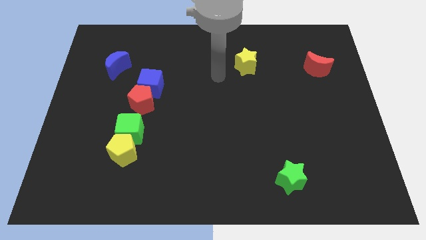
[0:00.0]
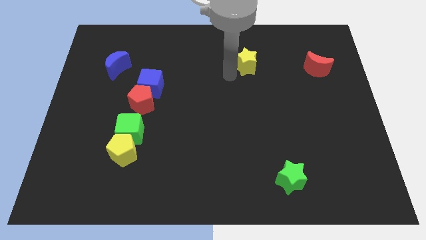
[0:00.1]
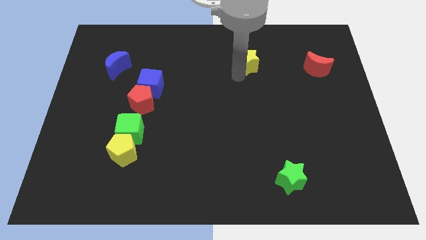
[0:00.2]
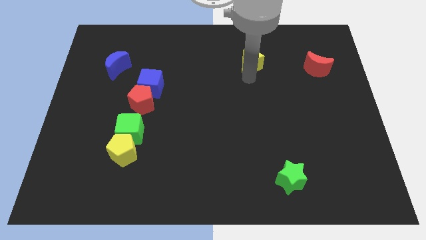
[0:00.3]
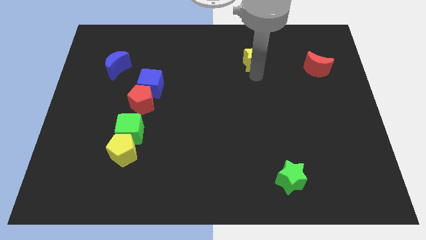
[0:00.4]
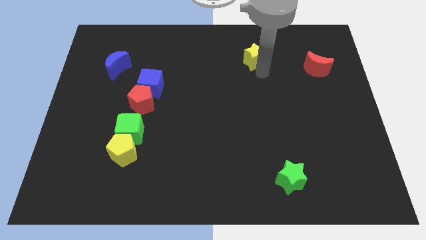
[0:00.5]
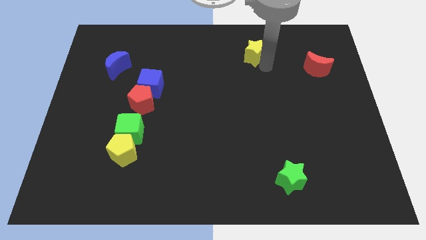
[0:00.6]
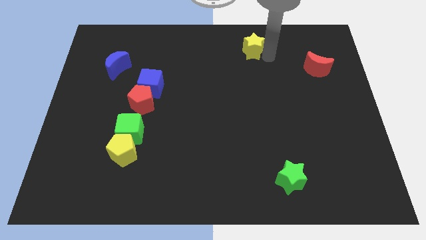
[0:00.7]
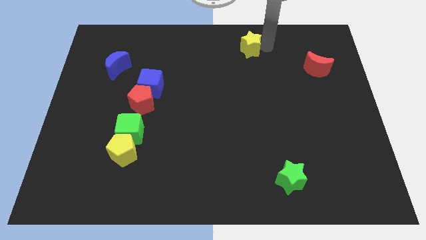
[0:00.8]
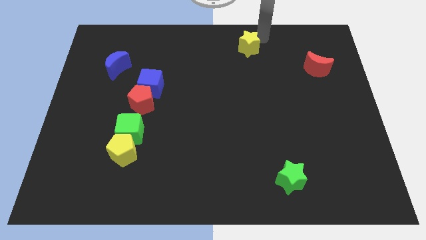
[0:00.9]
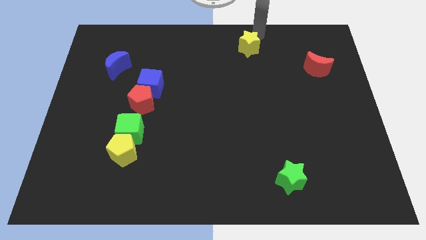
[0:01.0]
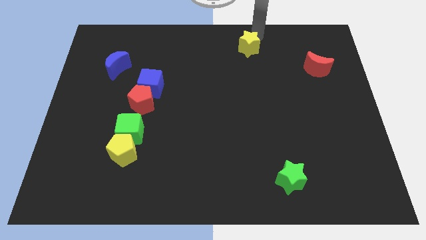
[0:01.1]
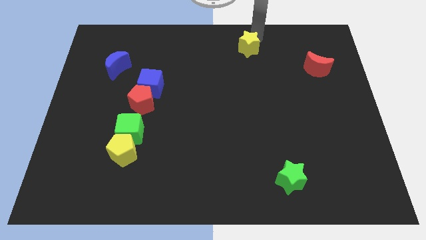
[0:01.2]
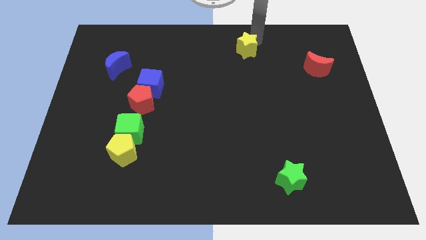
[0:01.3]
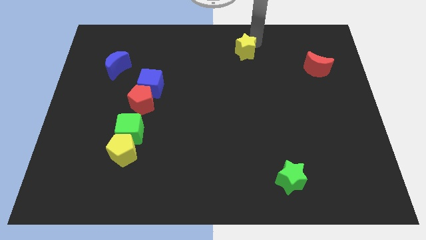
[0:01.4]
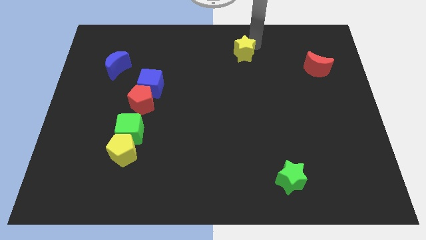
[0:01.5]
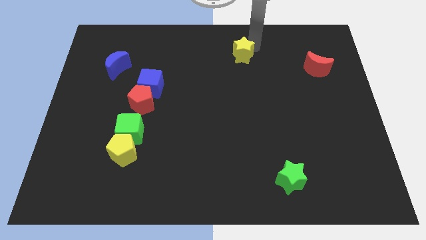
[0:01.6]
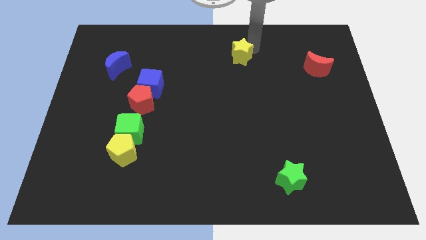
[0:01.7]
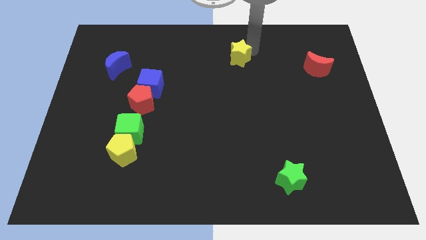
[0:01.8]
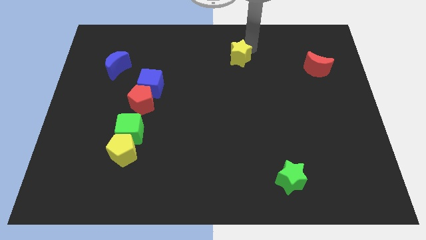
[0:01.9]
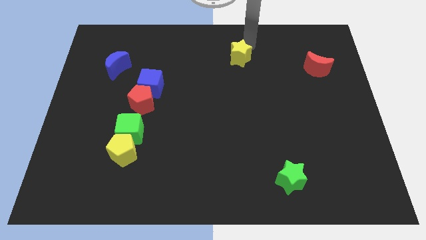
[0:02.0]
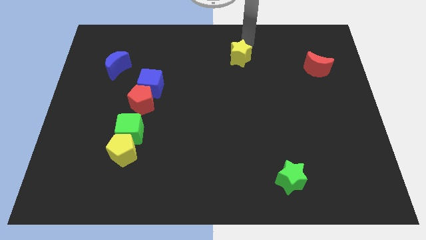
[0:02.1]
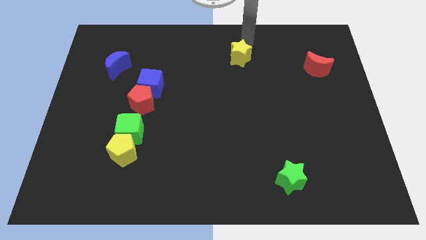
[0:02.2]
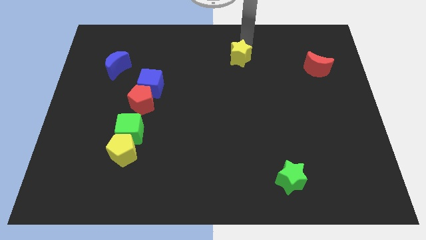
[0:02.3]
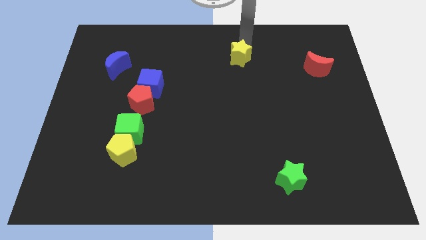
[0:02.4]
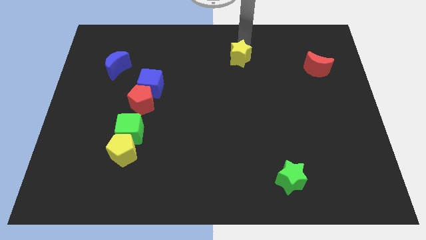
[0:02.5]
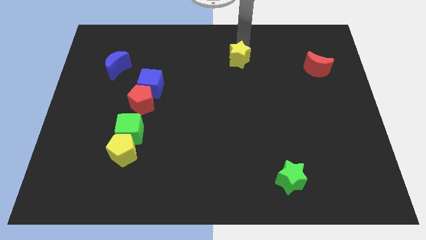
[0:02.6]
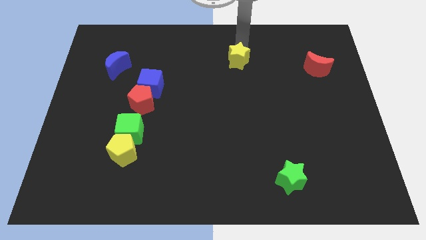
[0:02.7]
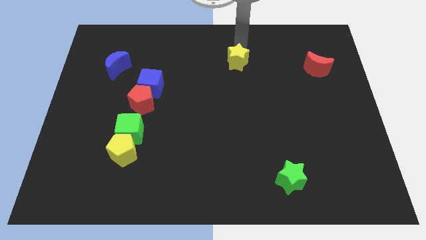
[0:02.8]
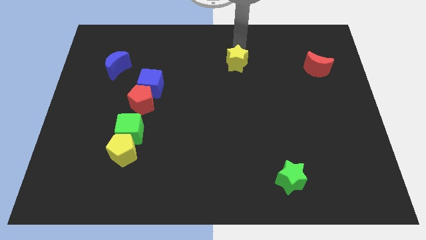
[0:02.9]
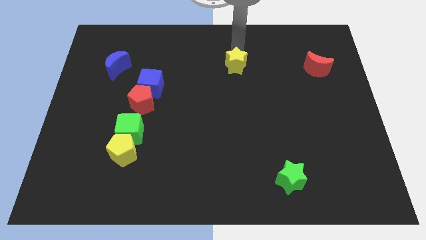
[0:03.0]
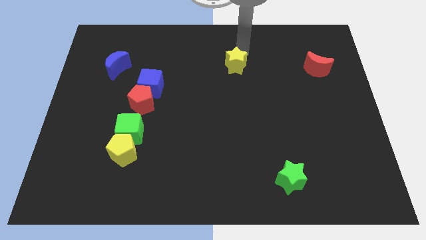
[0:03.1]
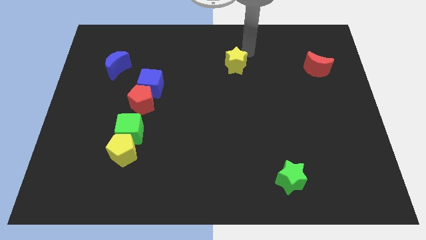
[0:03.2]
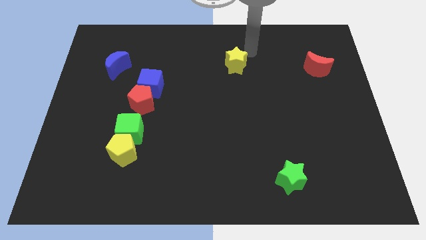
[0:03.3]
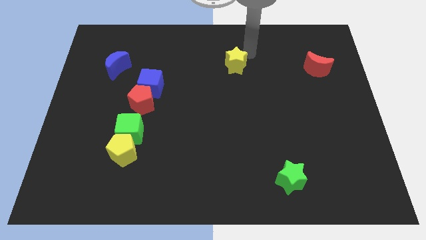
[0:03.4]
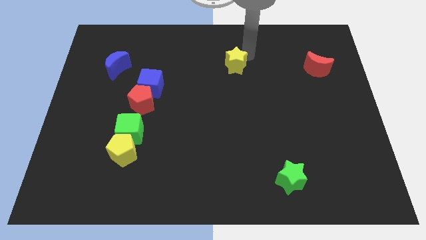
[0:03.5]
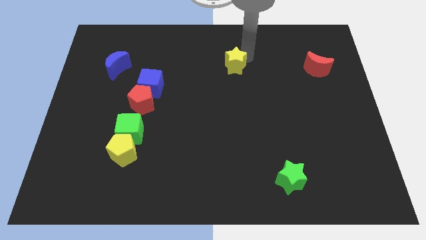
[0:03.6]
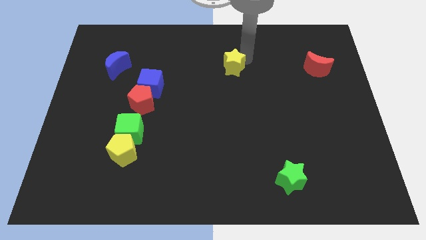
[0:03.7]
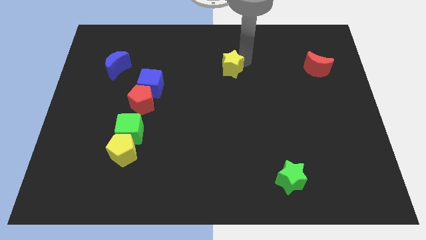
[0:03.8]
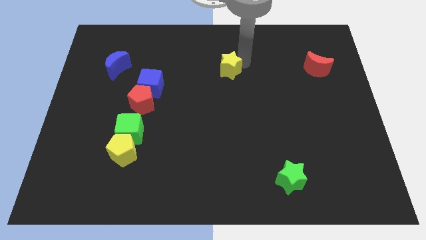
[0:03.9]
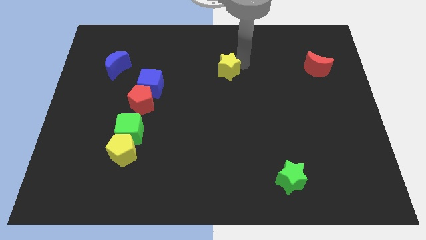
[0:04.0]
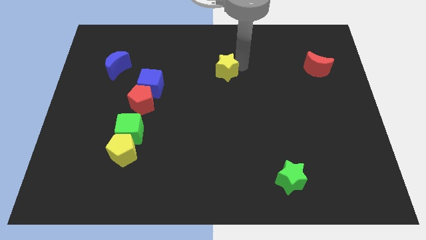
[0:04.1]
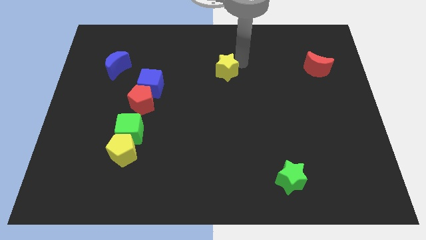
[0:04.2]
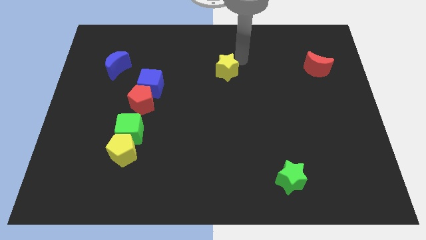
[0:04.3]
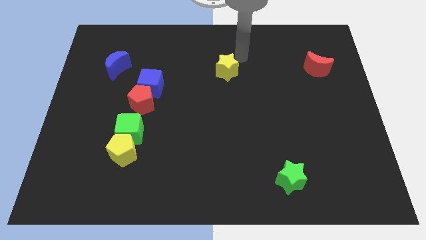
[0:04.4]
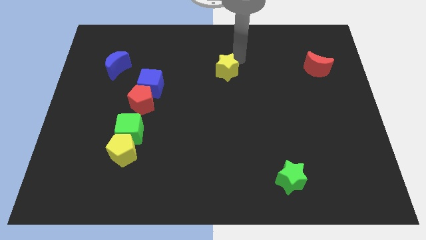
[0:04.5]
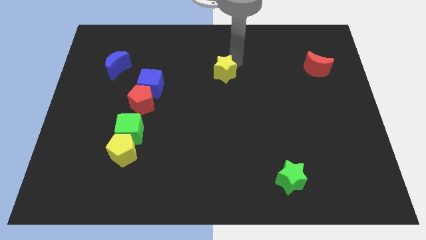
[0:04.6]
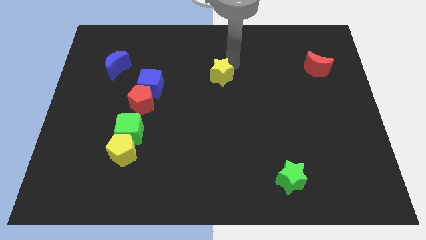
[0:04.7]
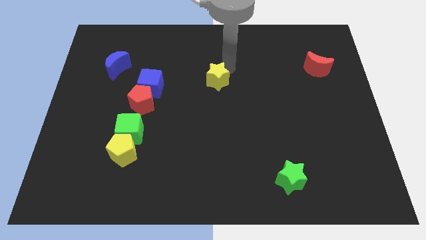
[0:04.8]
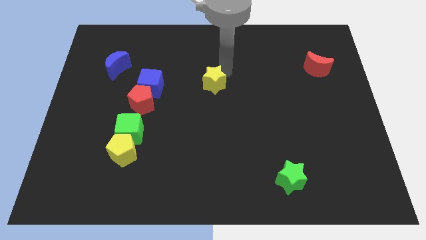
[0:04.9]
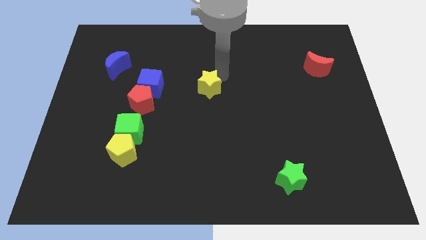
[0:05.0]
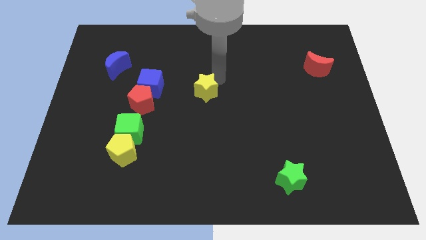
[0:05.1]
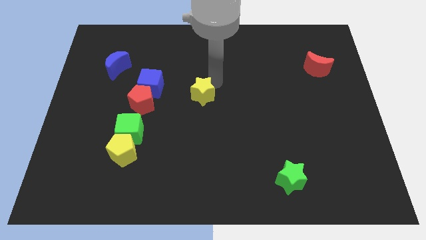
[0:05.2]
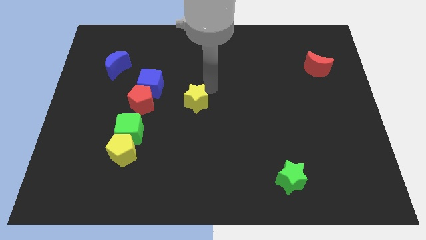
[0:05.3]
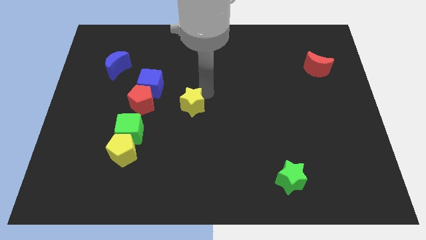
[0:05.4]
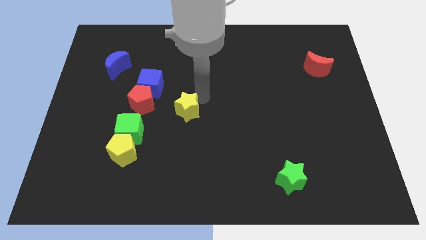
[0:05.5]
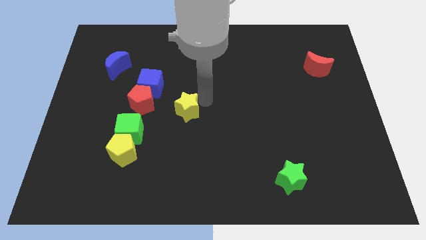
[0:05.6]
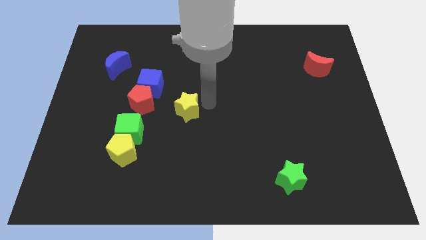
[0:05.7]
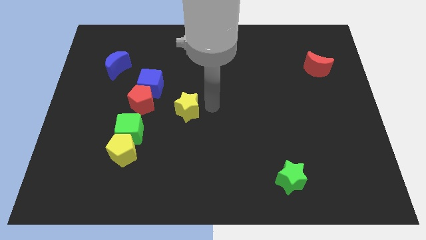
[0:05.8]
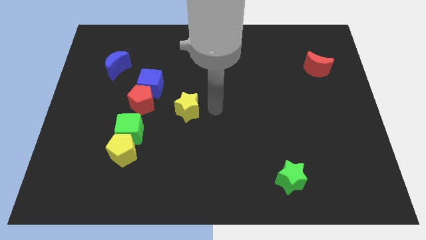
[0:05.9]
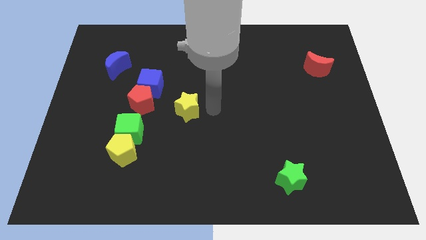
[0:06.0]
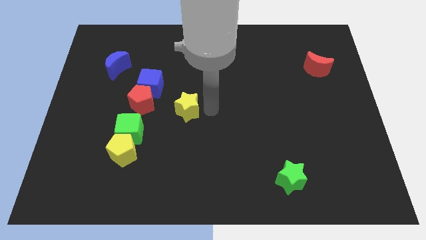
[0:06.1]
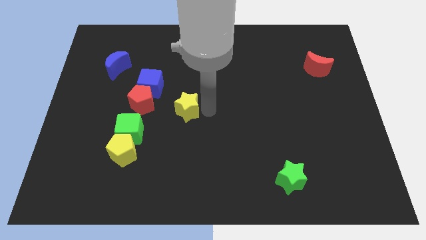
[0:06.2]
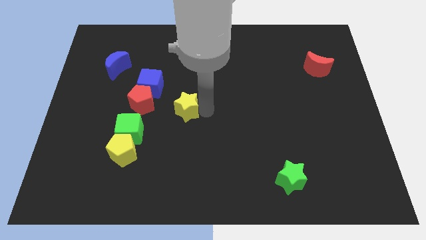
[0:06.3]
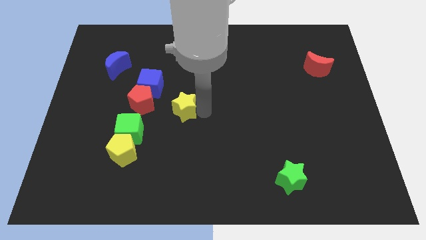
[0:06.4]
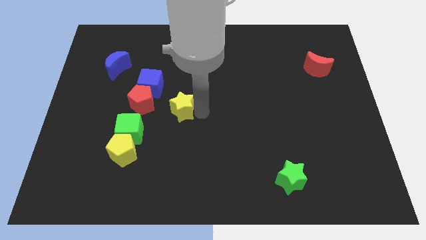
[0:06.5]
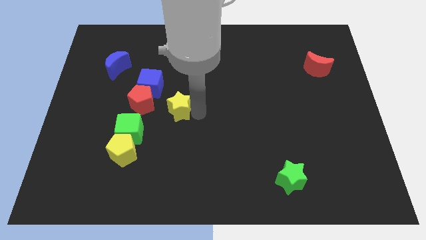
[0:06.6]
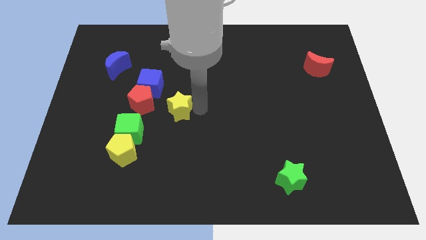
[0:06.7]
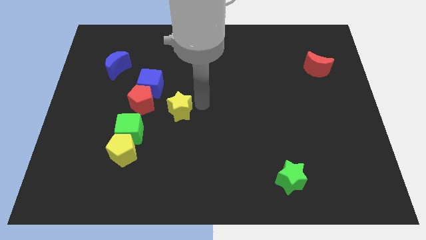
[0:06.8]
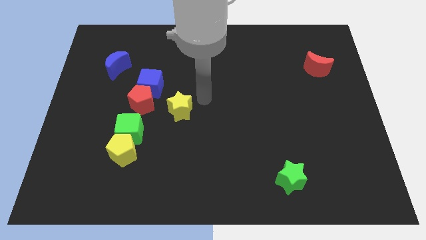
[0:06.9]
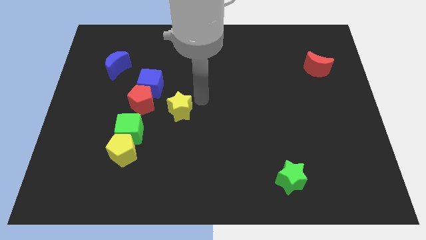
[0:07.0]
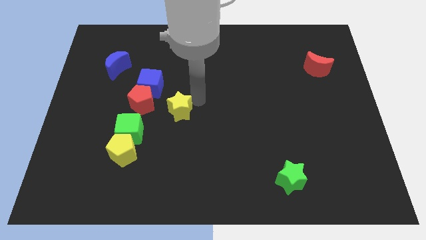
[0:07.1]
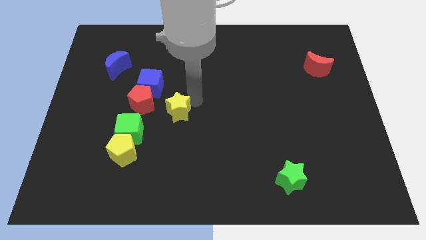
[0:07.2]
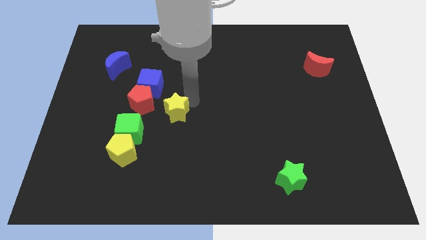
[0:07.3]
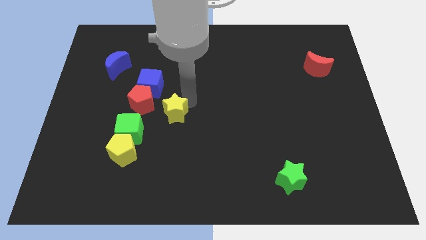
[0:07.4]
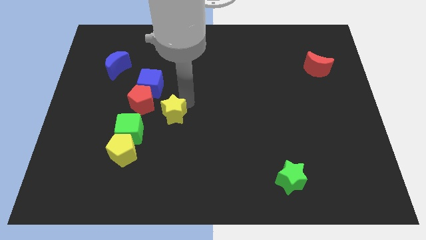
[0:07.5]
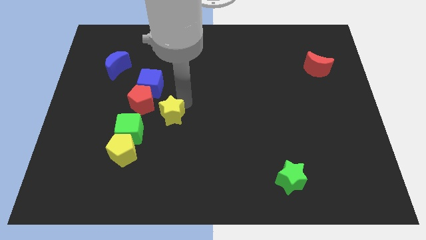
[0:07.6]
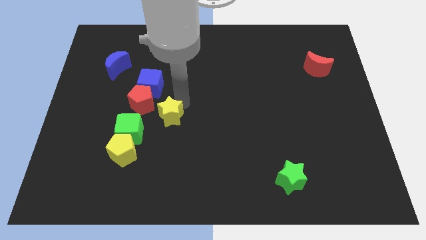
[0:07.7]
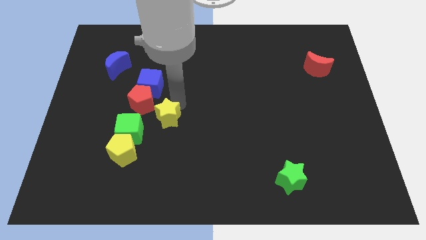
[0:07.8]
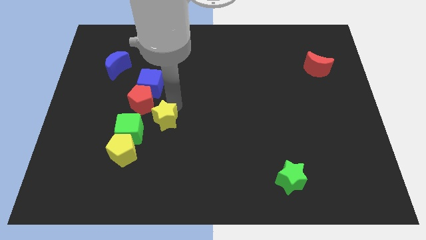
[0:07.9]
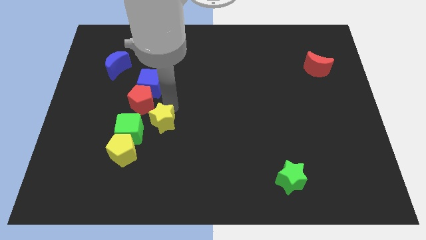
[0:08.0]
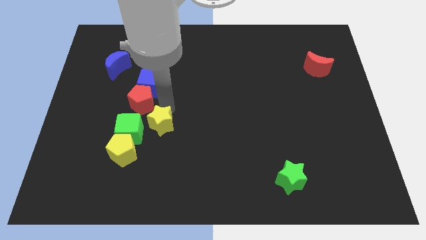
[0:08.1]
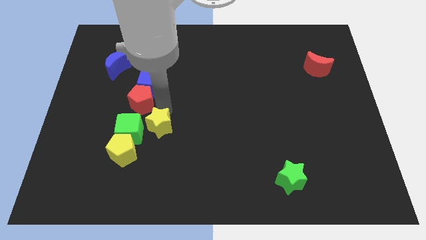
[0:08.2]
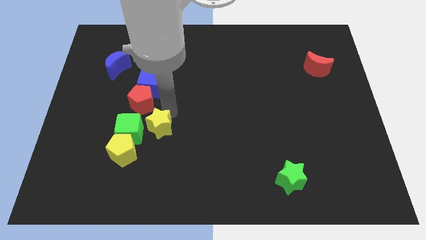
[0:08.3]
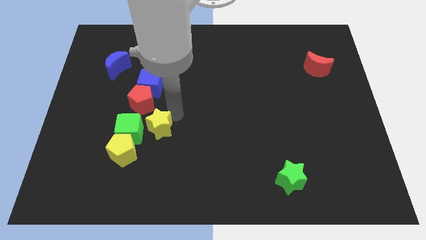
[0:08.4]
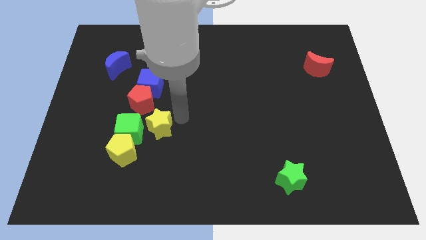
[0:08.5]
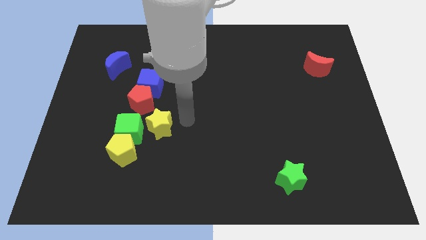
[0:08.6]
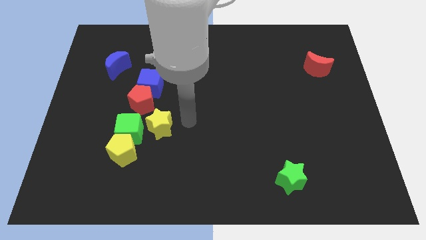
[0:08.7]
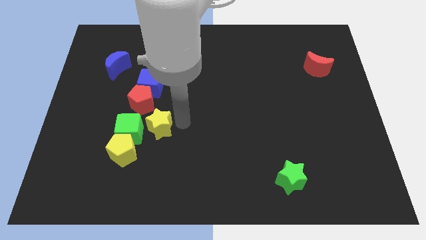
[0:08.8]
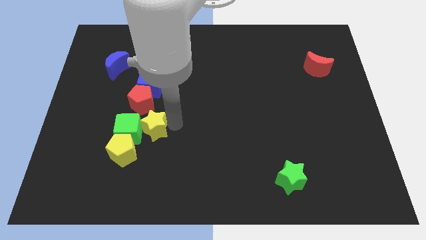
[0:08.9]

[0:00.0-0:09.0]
move the yellow star next to the green cube
